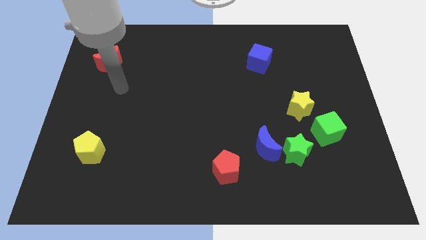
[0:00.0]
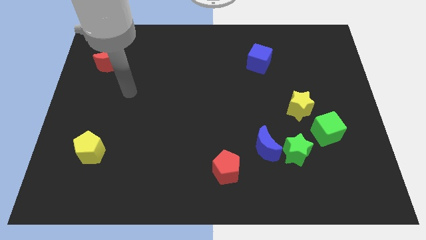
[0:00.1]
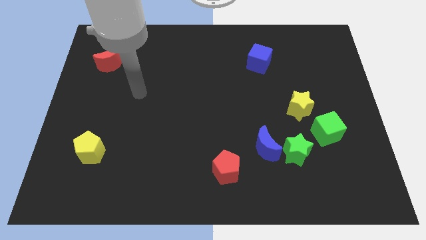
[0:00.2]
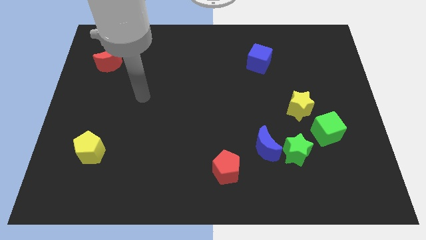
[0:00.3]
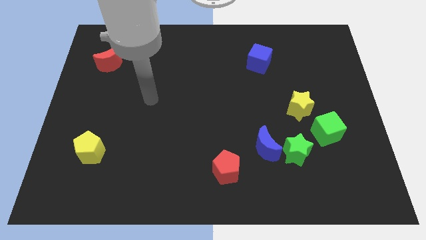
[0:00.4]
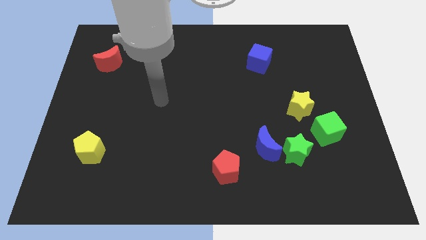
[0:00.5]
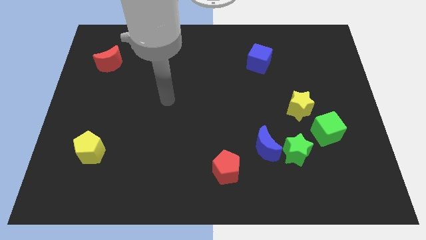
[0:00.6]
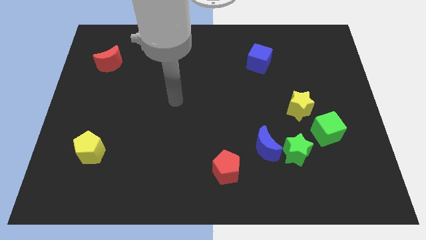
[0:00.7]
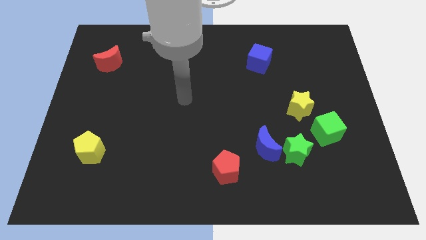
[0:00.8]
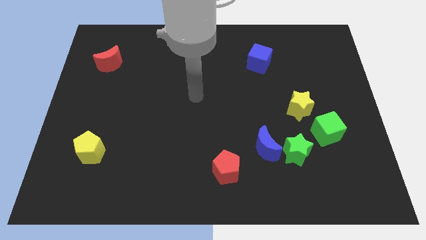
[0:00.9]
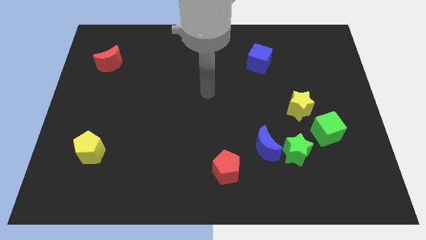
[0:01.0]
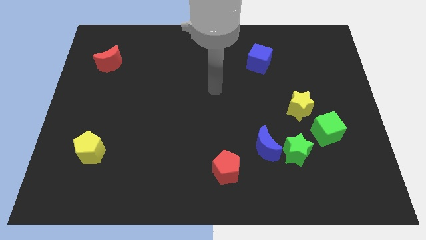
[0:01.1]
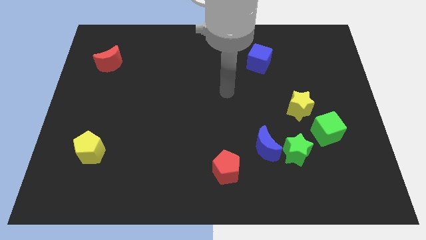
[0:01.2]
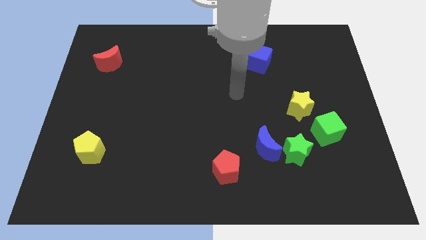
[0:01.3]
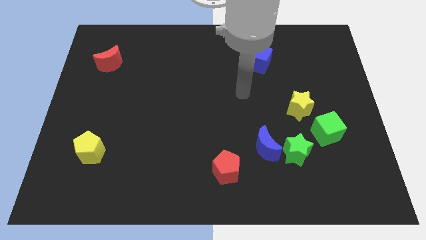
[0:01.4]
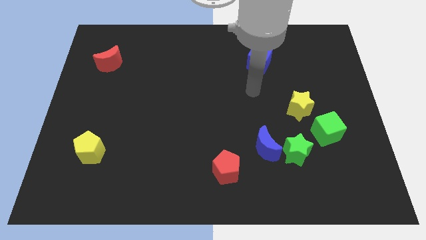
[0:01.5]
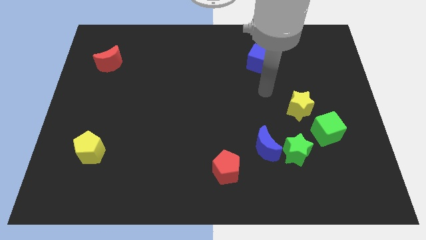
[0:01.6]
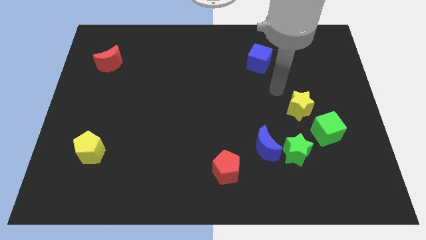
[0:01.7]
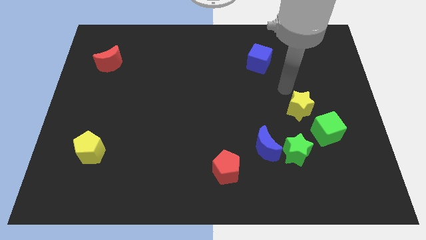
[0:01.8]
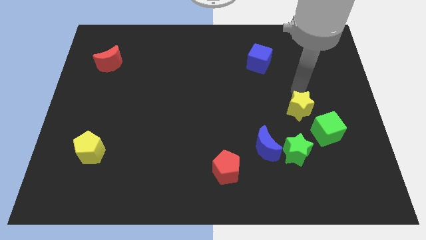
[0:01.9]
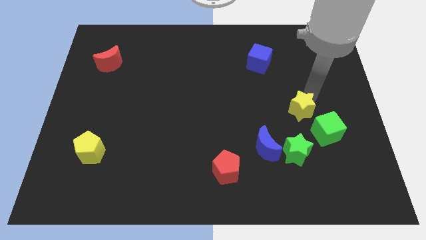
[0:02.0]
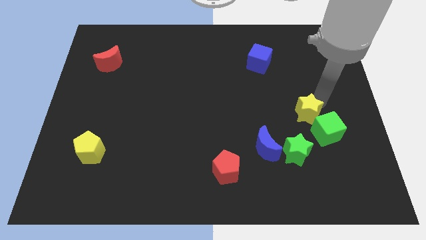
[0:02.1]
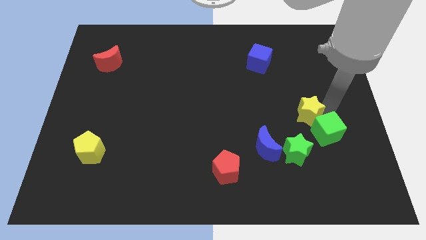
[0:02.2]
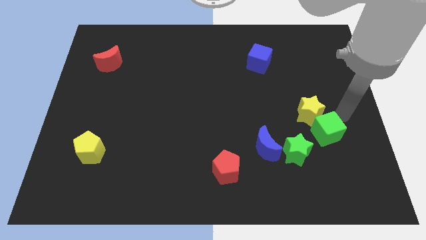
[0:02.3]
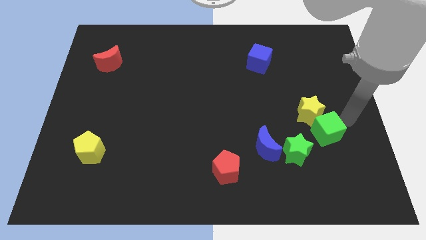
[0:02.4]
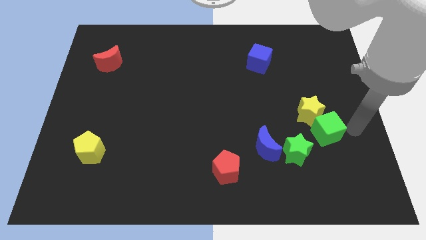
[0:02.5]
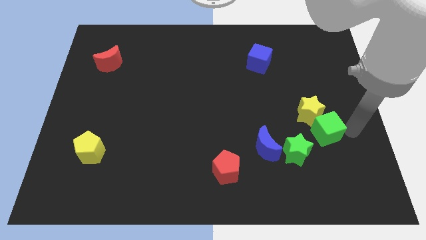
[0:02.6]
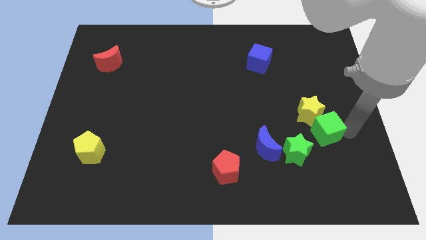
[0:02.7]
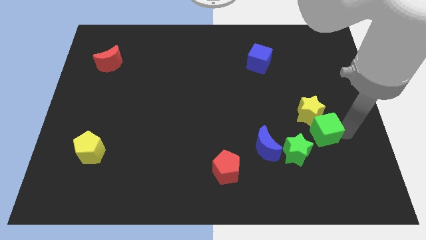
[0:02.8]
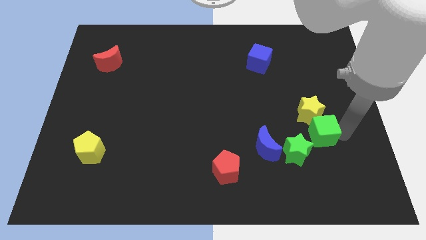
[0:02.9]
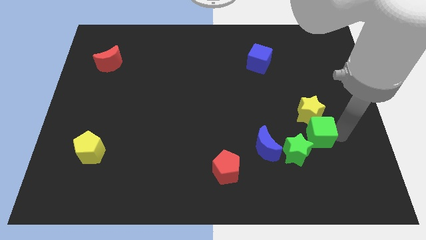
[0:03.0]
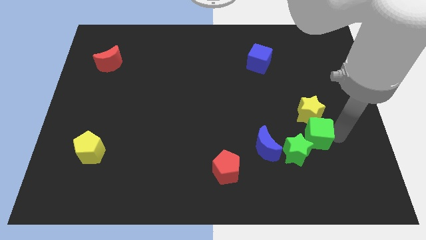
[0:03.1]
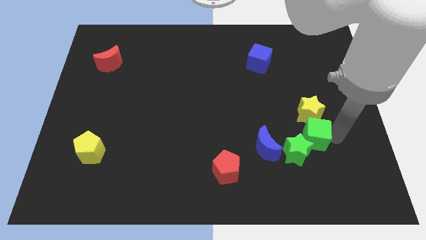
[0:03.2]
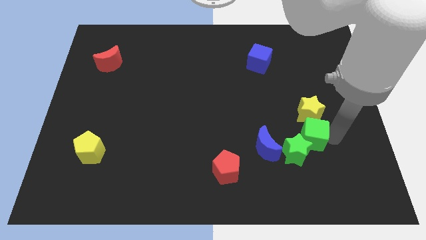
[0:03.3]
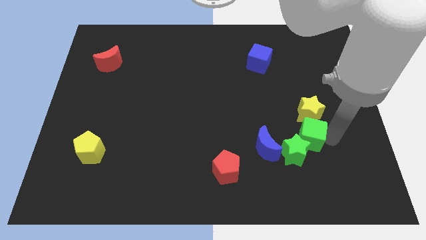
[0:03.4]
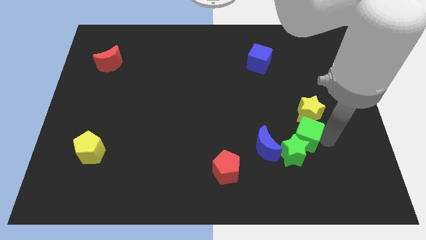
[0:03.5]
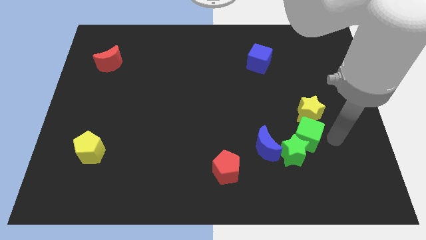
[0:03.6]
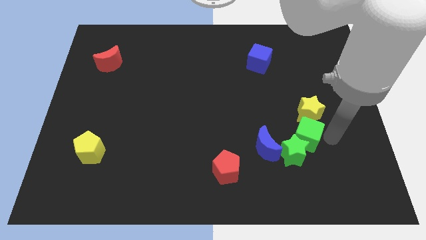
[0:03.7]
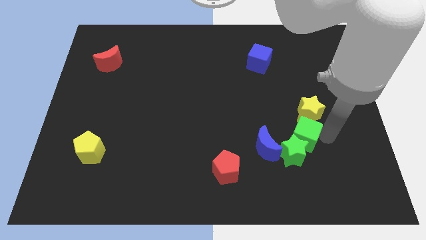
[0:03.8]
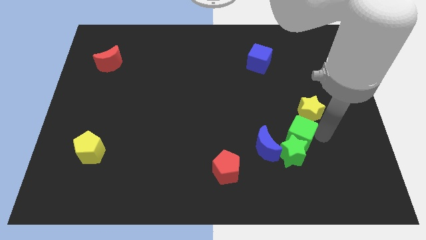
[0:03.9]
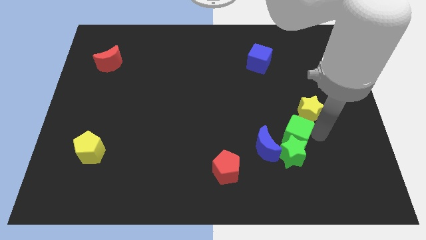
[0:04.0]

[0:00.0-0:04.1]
slide the green cube to the top left side of the green star

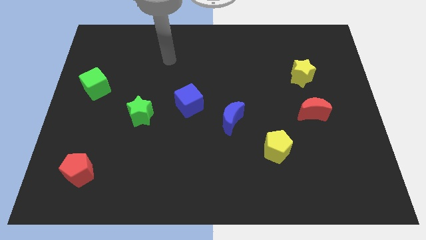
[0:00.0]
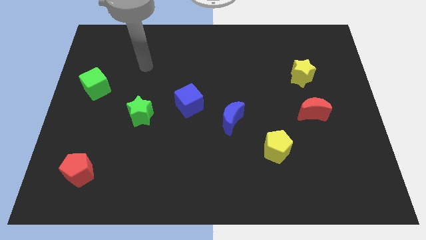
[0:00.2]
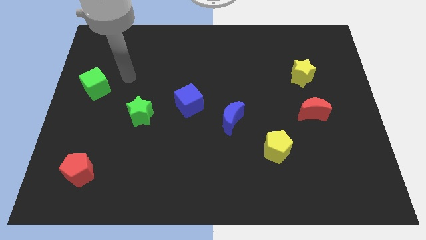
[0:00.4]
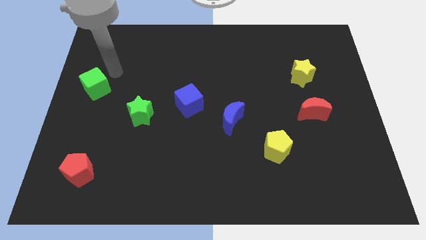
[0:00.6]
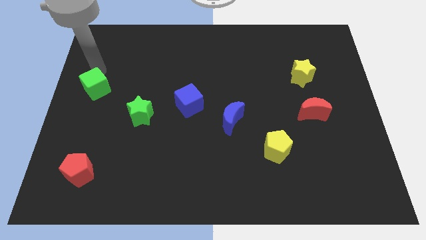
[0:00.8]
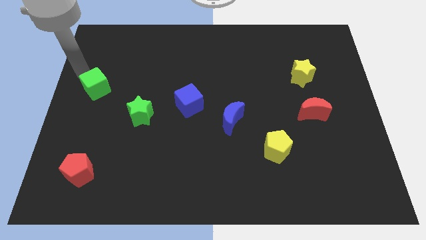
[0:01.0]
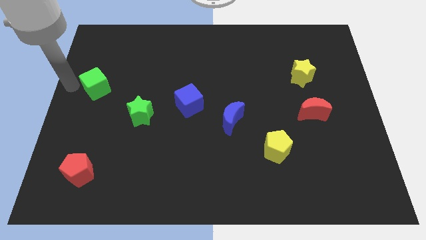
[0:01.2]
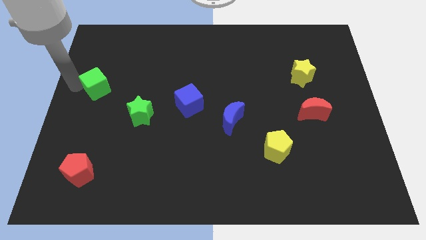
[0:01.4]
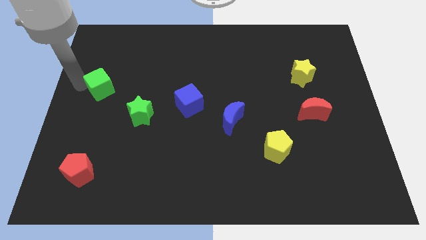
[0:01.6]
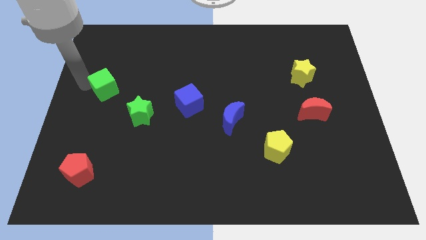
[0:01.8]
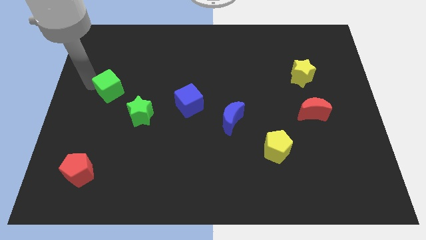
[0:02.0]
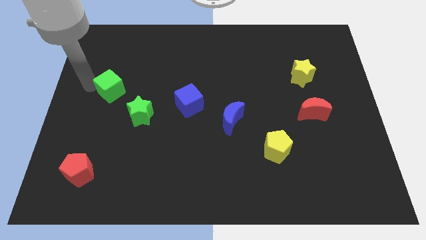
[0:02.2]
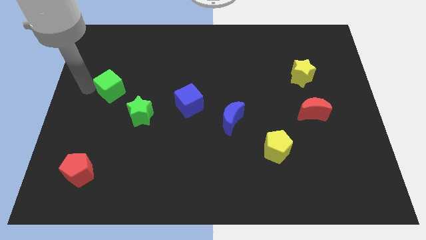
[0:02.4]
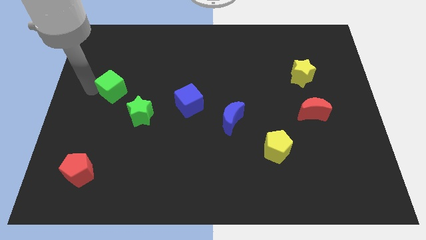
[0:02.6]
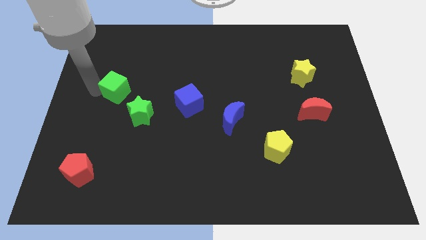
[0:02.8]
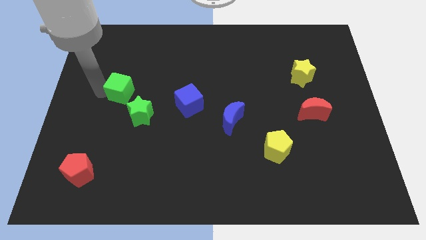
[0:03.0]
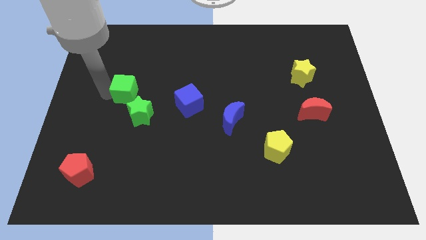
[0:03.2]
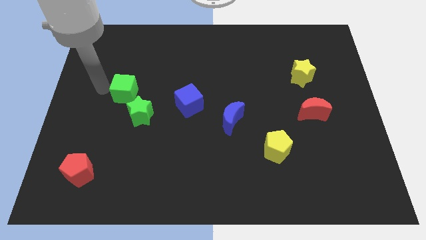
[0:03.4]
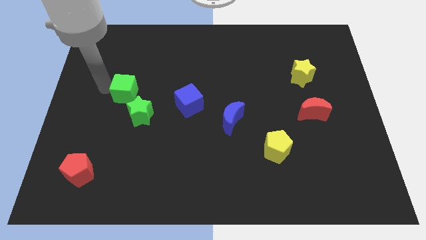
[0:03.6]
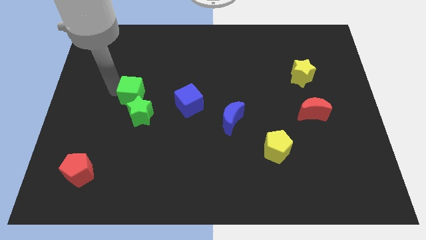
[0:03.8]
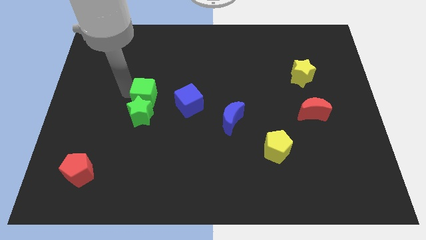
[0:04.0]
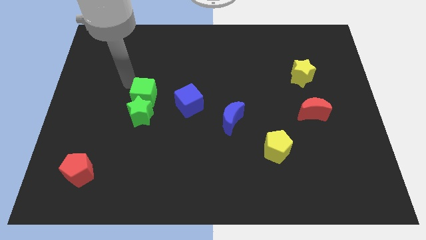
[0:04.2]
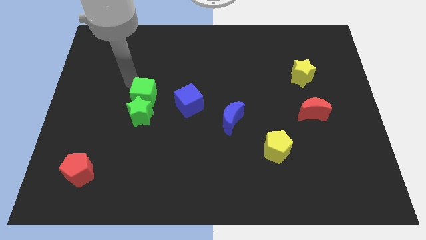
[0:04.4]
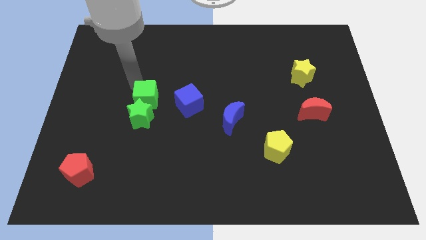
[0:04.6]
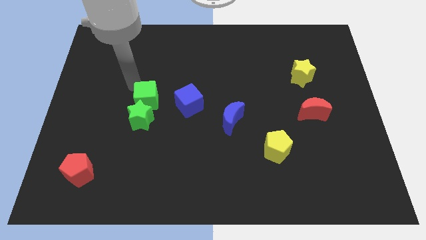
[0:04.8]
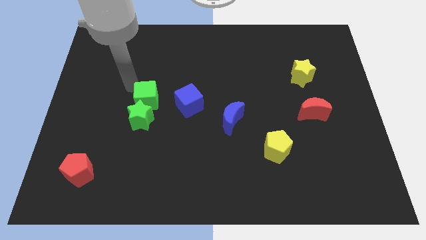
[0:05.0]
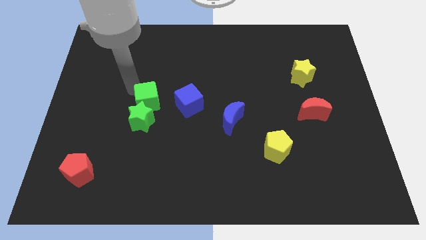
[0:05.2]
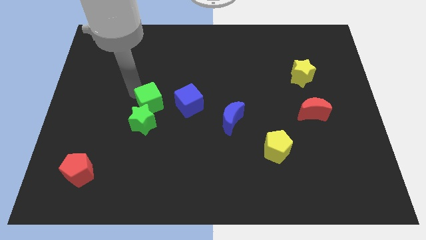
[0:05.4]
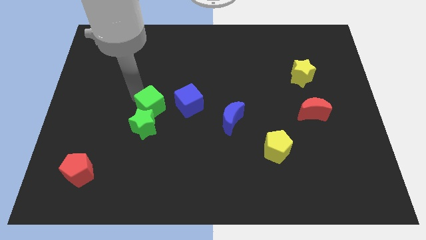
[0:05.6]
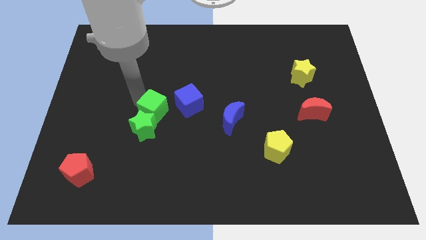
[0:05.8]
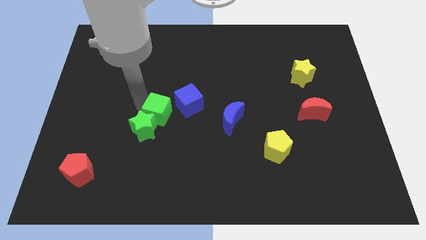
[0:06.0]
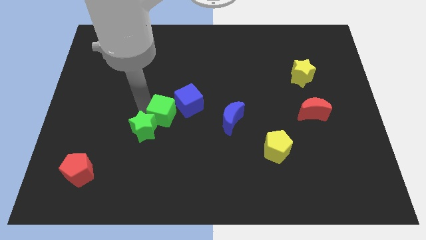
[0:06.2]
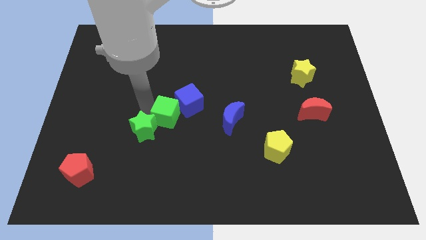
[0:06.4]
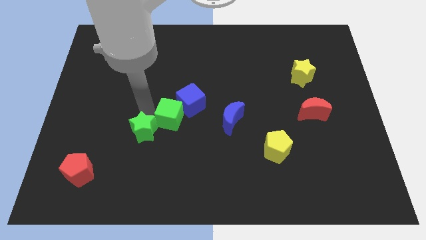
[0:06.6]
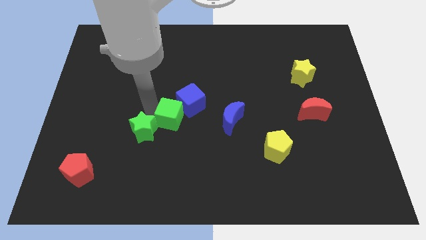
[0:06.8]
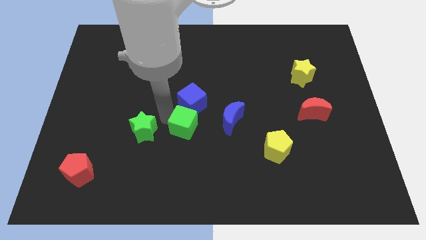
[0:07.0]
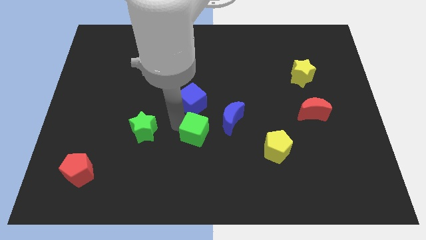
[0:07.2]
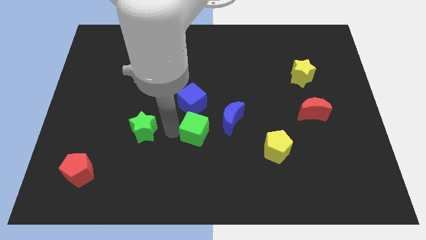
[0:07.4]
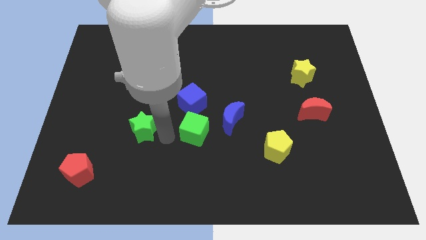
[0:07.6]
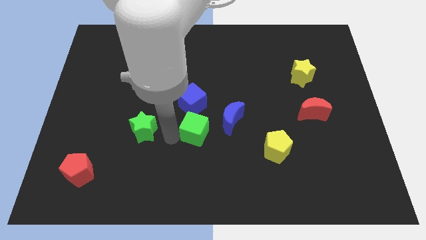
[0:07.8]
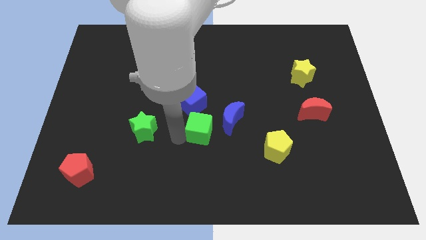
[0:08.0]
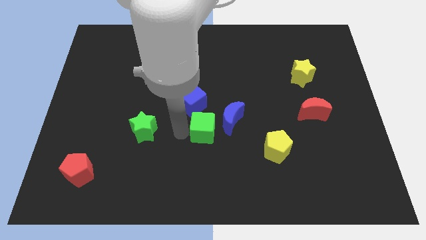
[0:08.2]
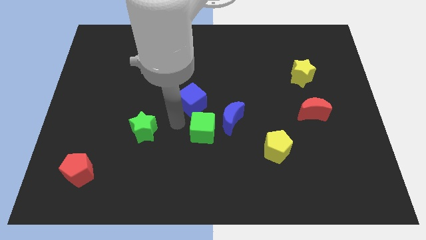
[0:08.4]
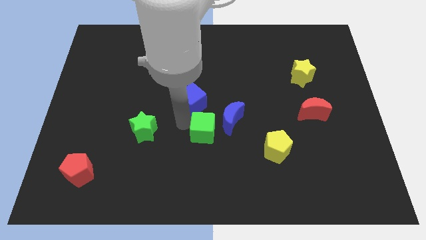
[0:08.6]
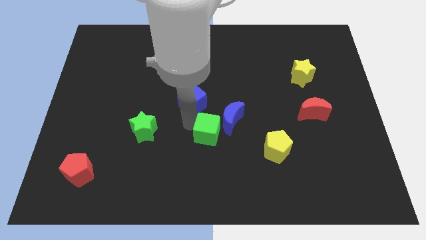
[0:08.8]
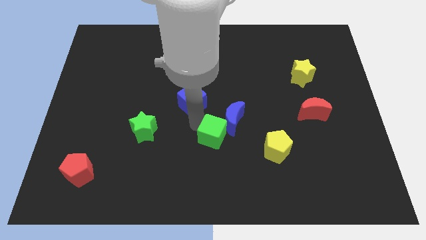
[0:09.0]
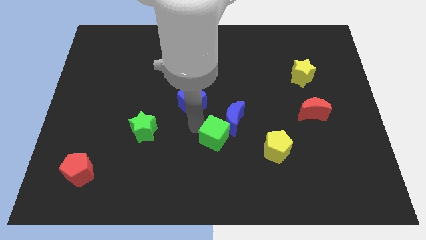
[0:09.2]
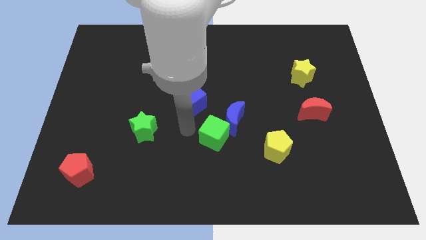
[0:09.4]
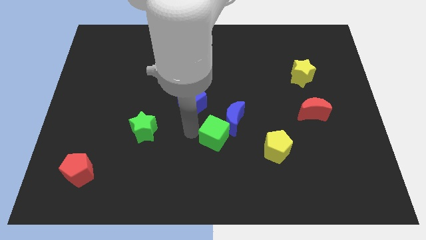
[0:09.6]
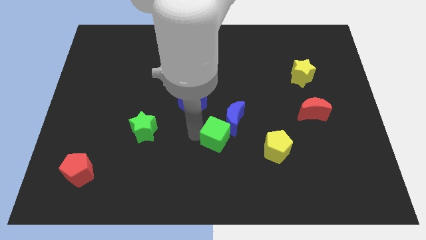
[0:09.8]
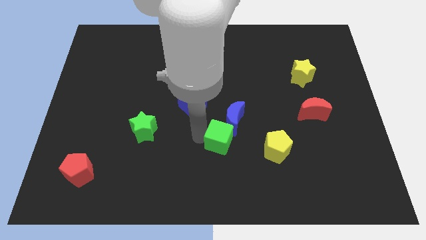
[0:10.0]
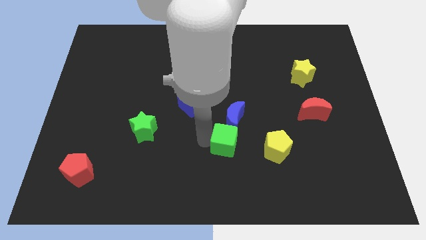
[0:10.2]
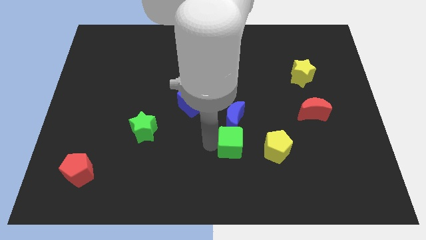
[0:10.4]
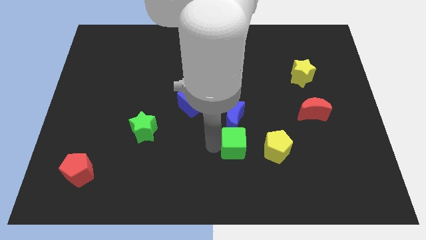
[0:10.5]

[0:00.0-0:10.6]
slide the green cube diagonally down and to the right of the blue moon
